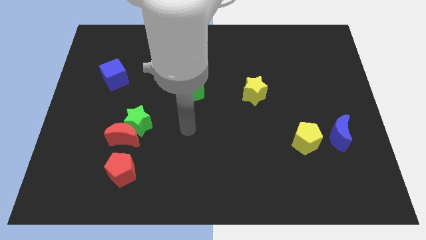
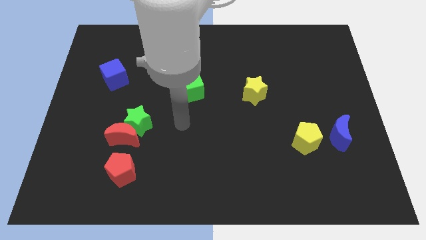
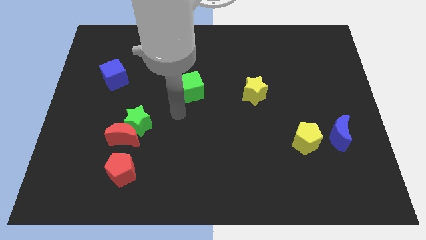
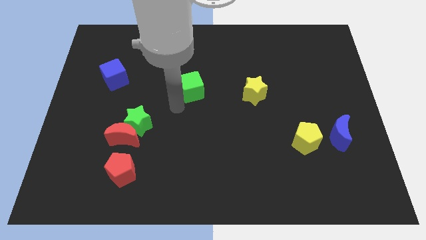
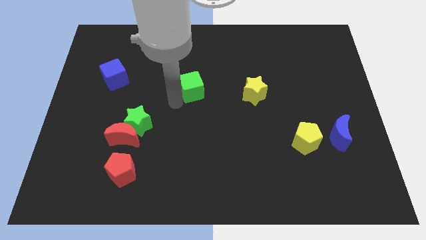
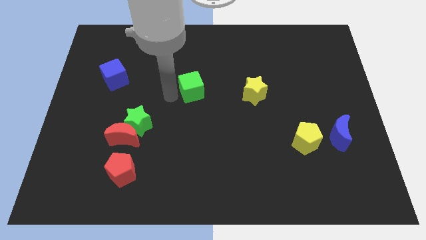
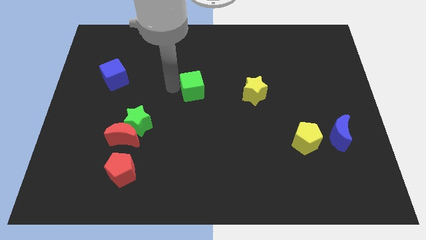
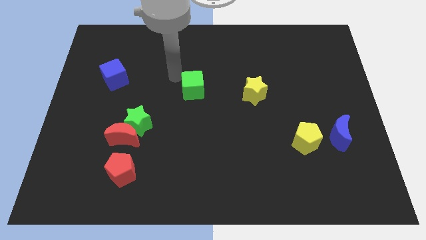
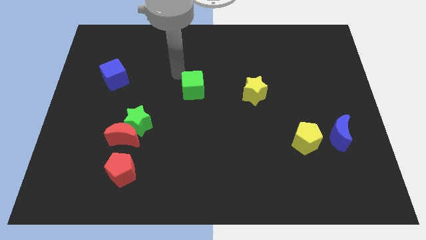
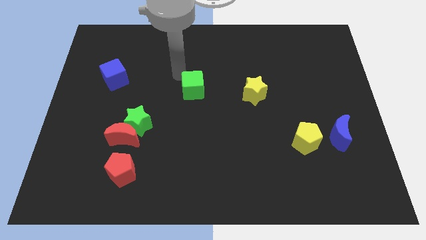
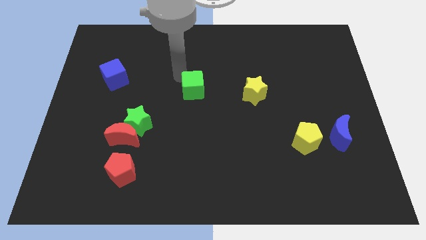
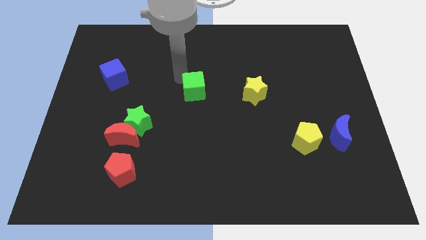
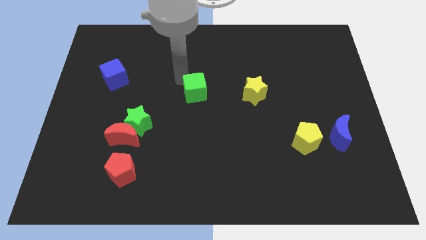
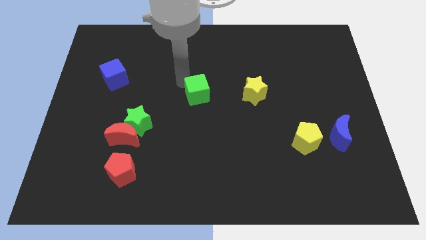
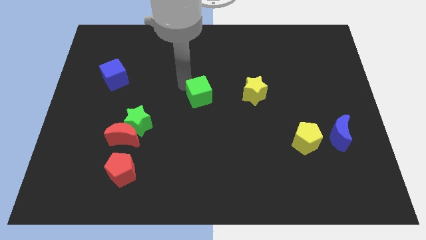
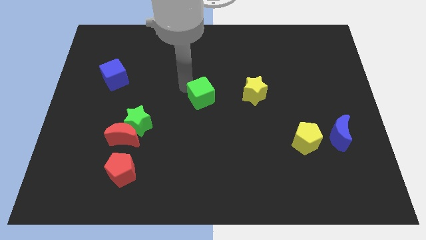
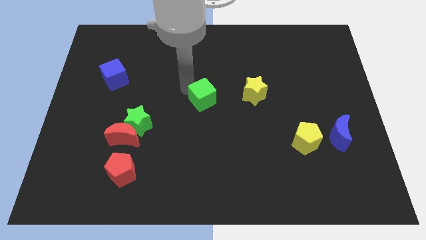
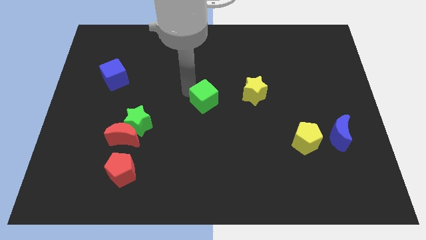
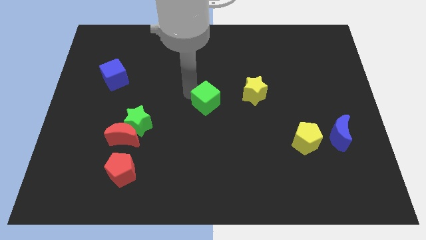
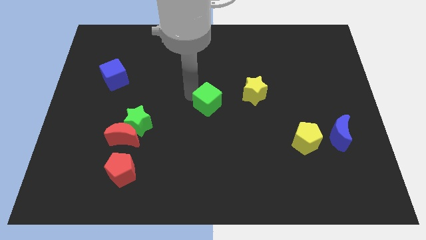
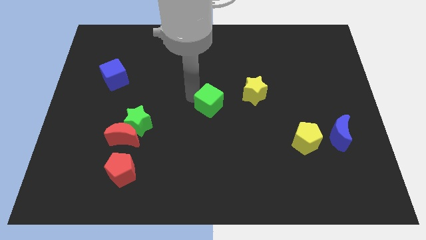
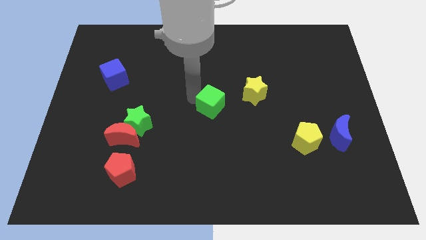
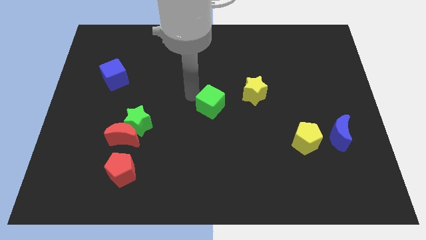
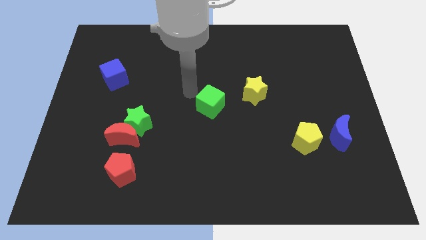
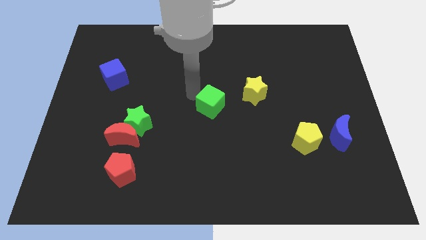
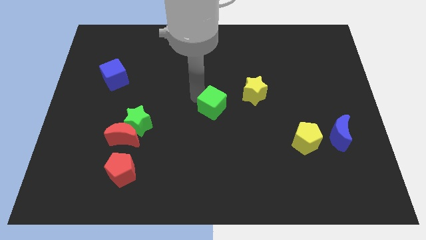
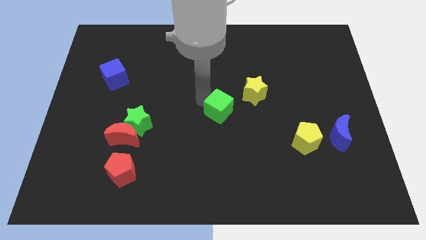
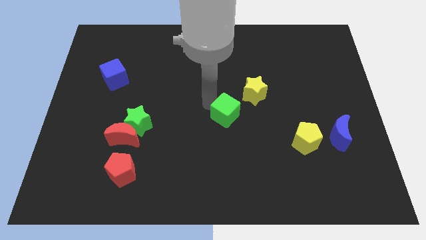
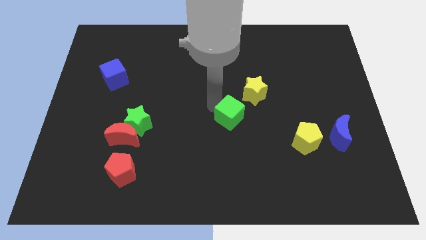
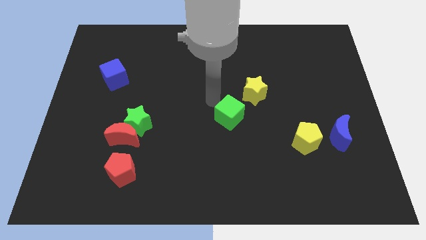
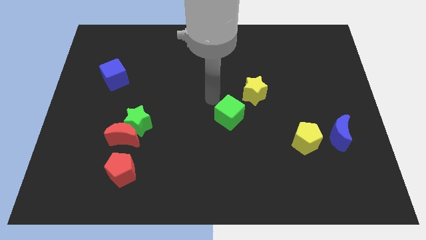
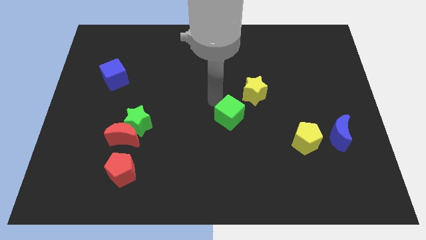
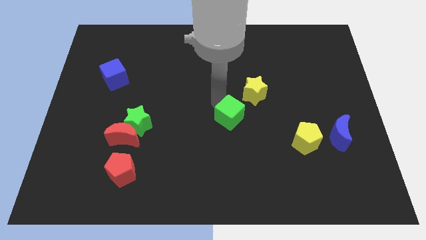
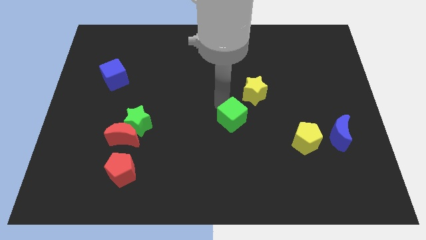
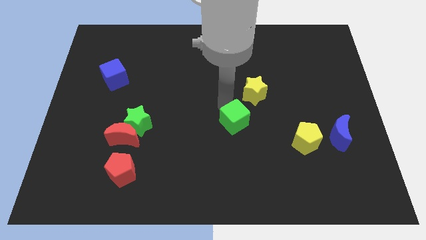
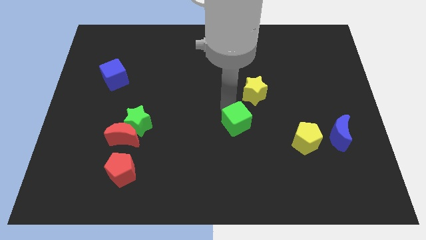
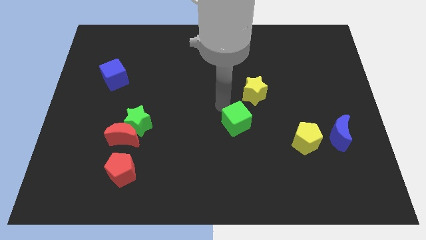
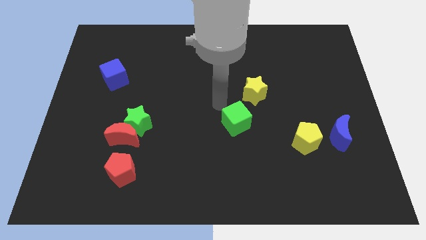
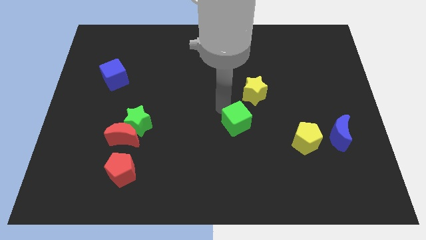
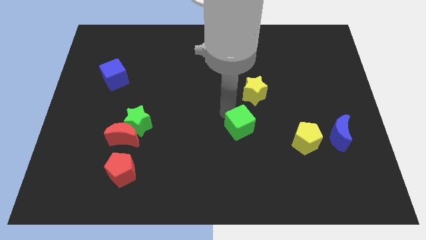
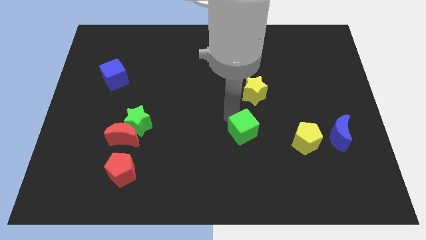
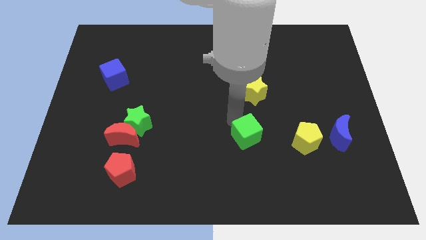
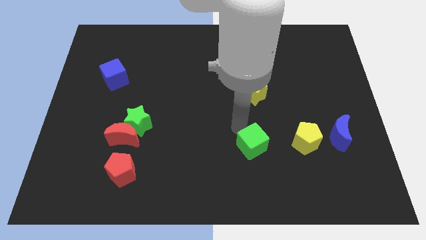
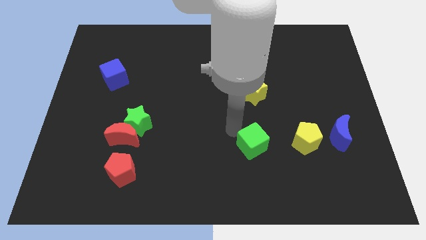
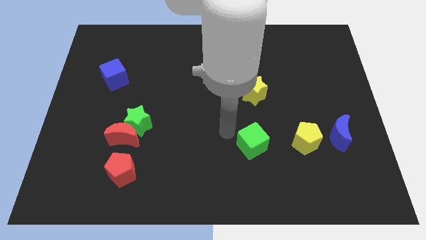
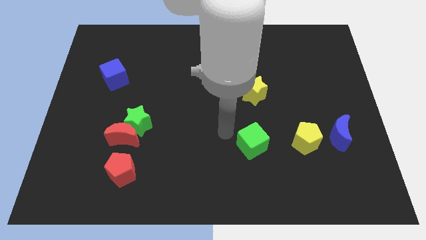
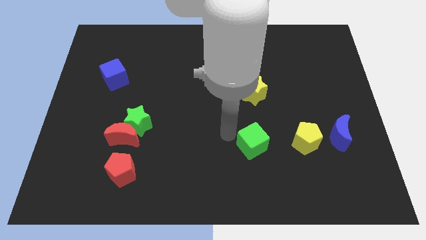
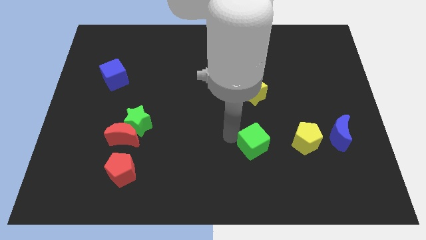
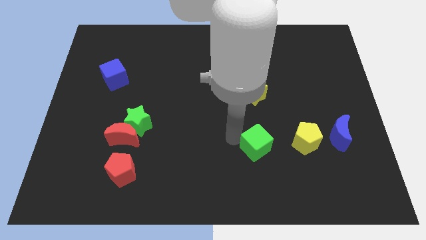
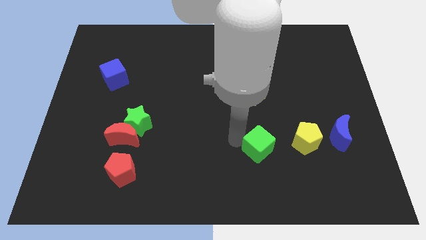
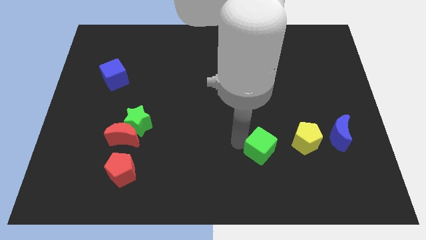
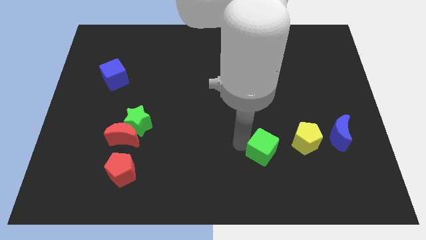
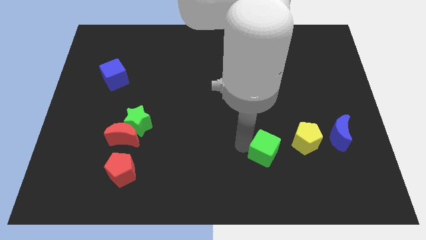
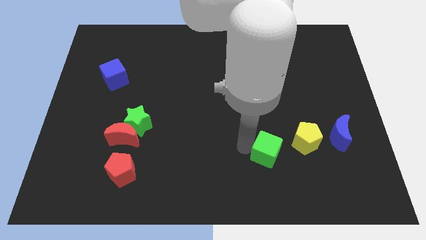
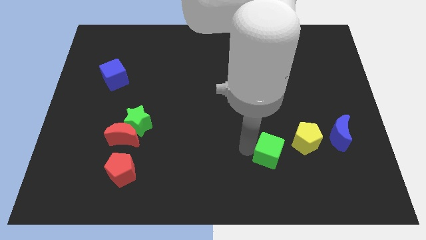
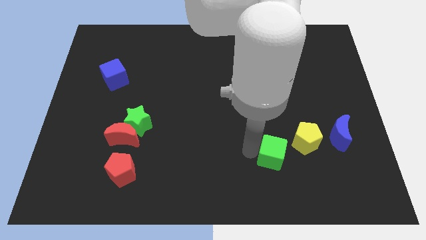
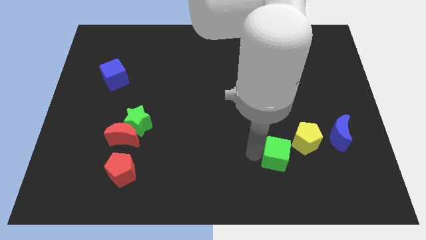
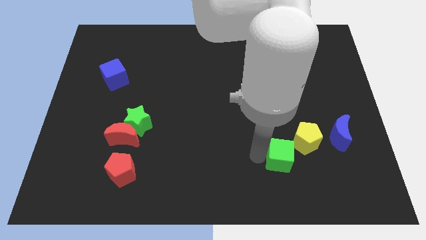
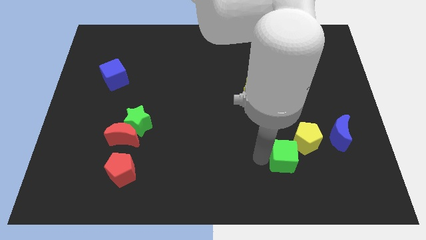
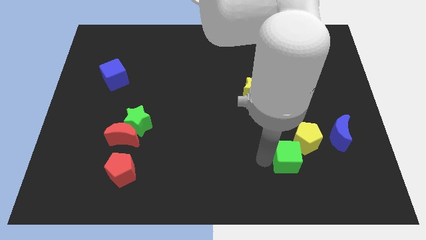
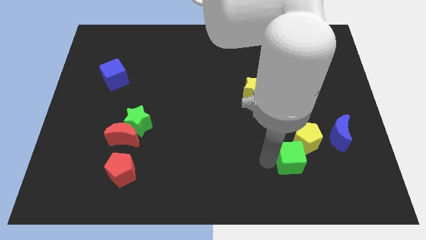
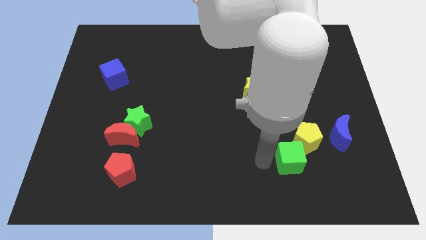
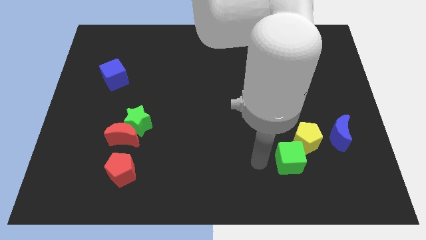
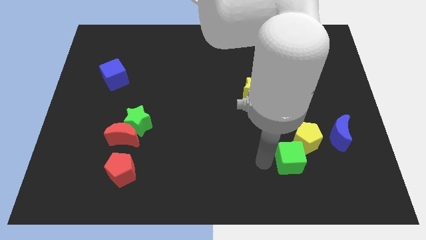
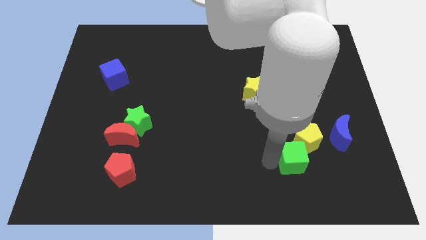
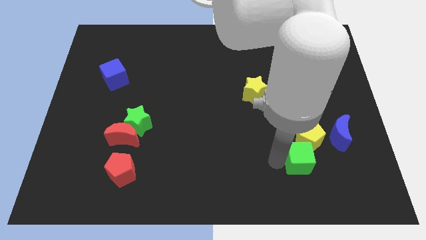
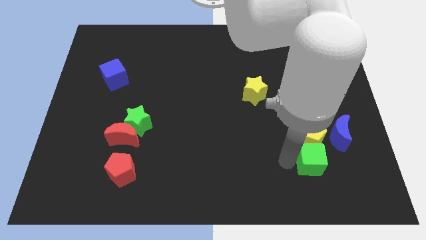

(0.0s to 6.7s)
move the green cube to the bottom right side of the yellow pentagon

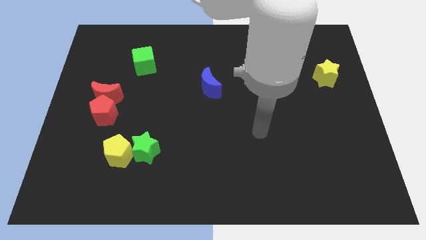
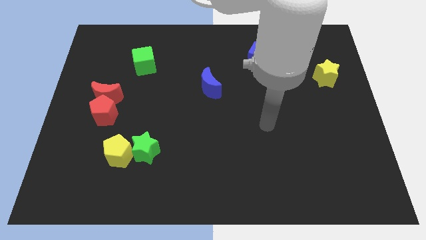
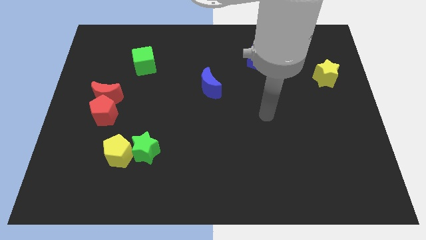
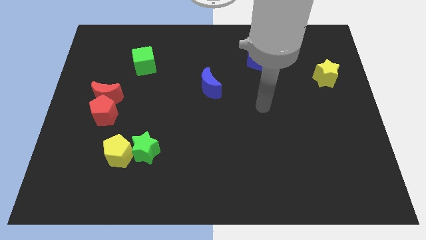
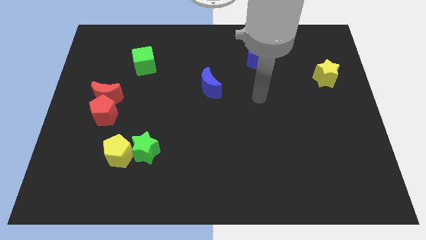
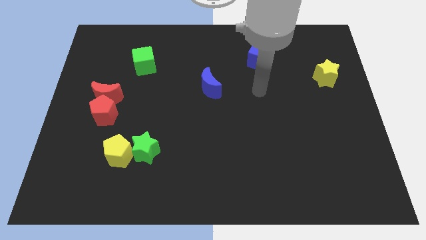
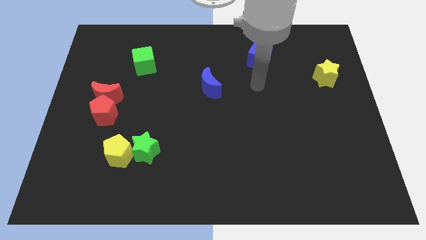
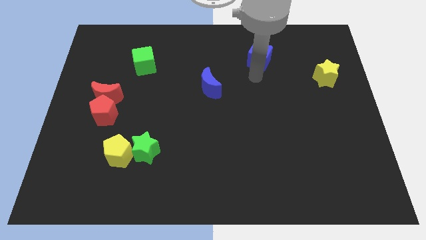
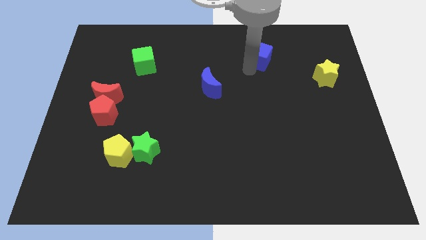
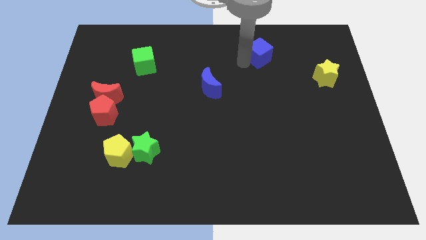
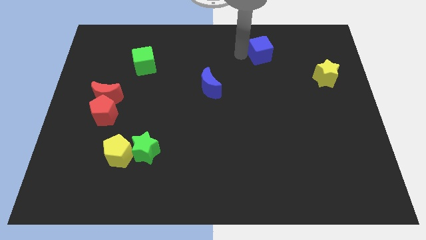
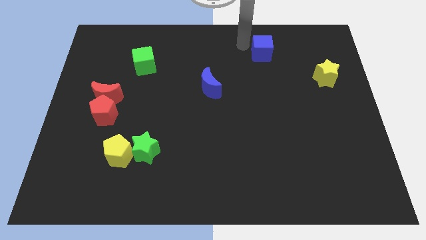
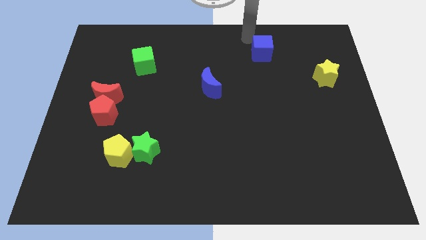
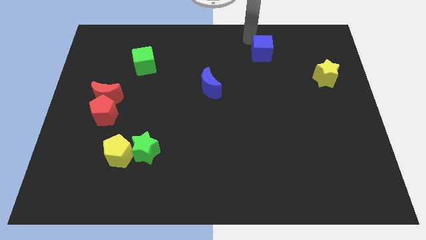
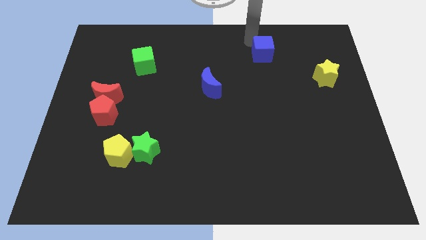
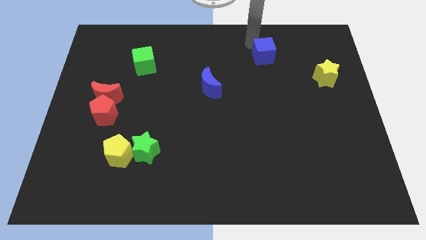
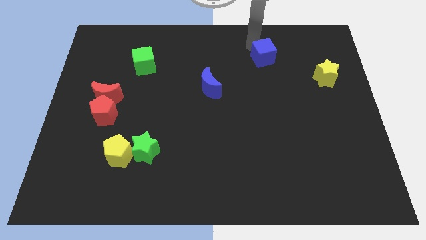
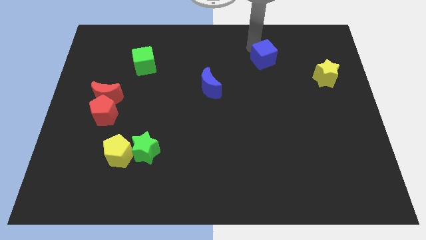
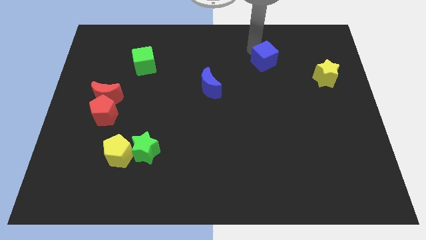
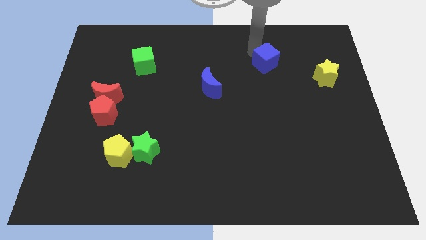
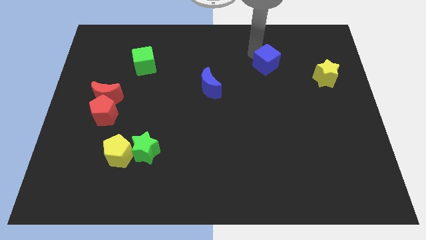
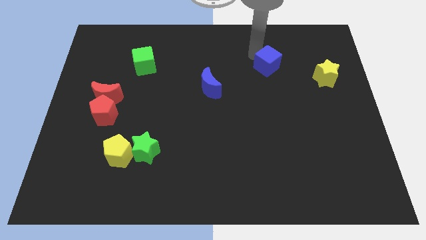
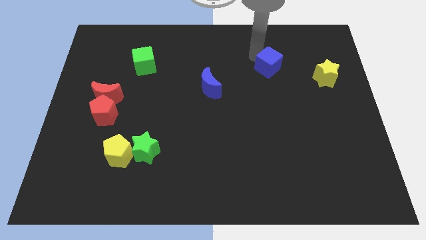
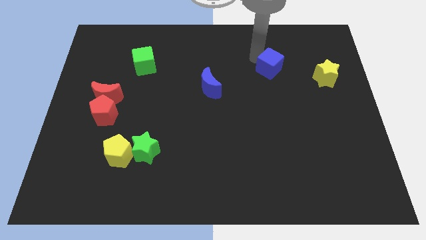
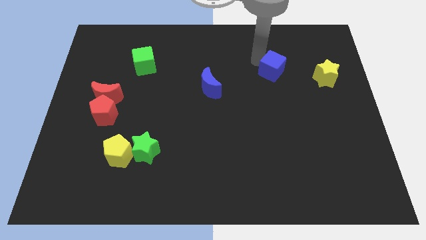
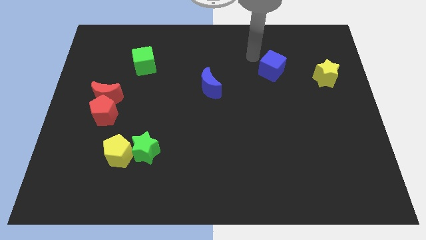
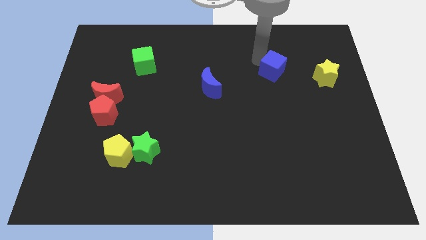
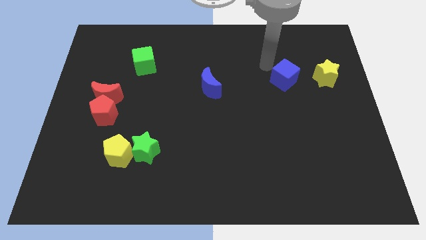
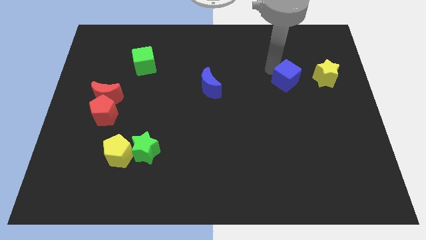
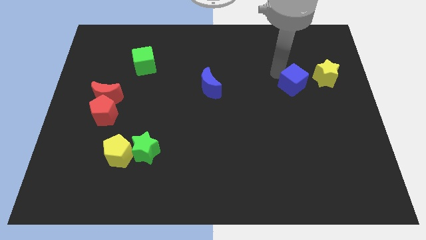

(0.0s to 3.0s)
push the blue cube to the bottom left side of the yellow star
